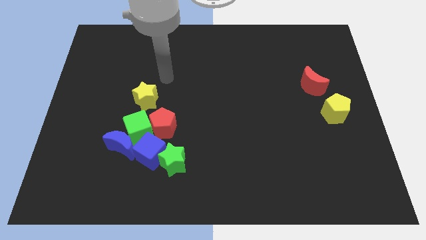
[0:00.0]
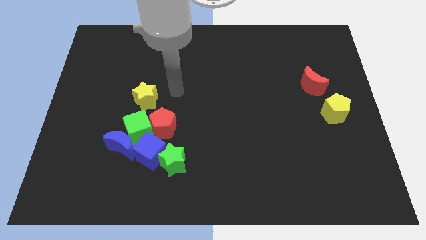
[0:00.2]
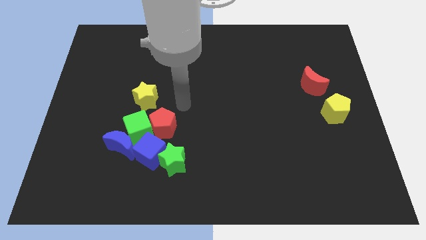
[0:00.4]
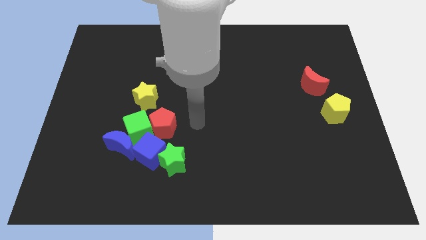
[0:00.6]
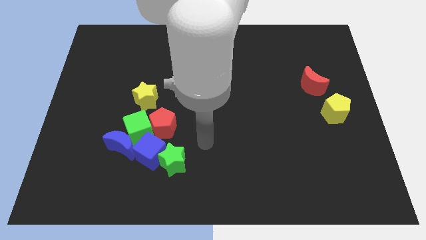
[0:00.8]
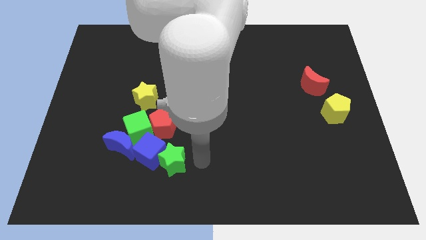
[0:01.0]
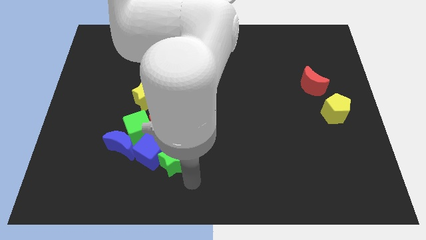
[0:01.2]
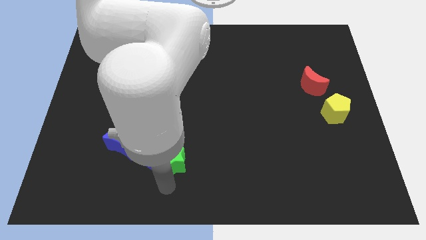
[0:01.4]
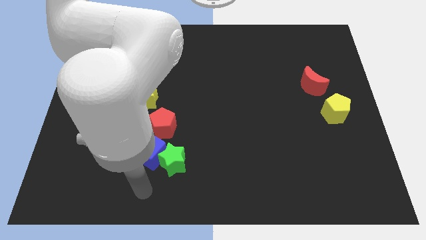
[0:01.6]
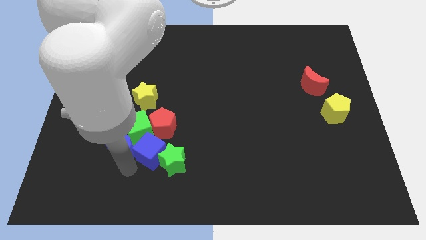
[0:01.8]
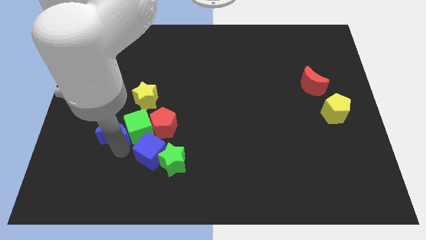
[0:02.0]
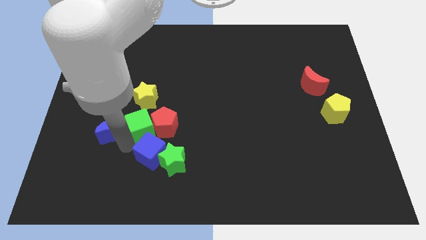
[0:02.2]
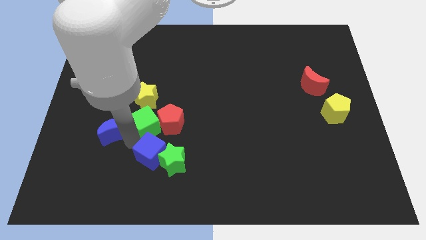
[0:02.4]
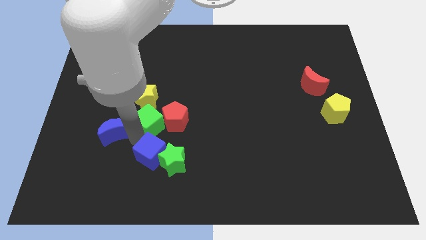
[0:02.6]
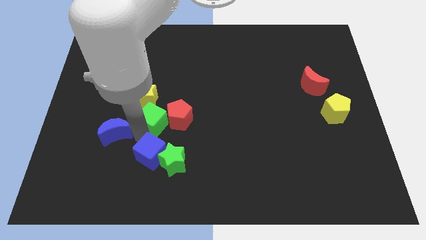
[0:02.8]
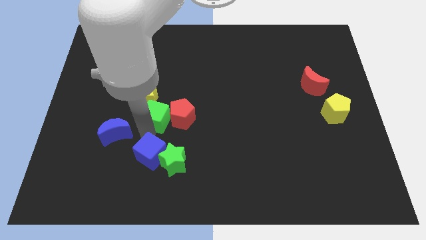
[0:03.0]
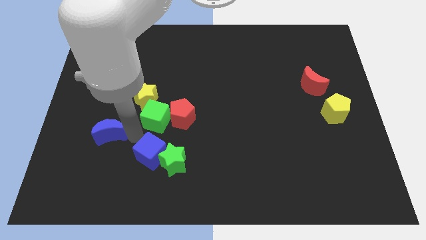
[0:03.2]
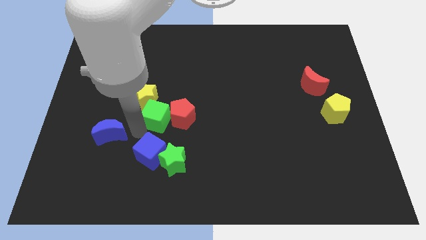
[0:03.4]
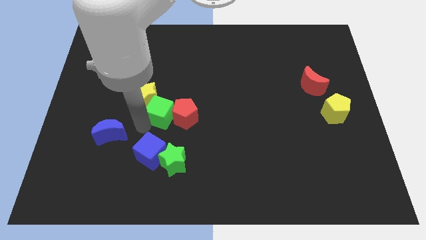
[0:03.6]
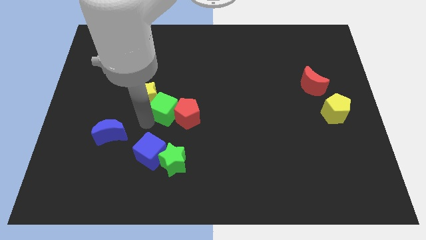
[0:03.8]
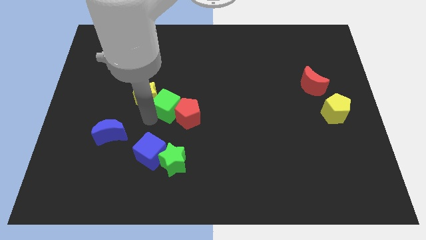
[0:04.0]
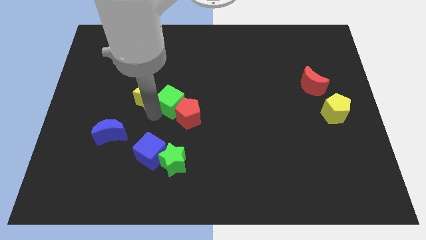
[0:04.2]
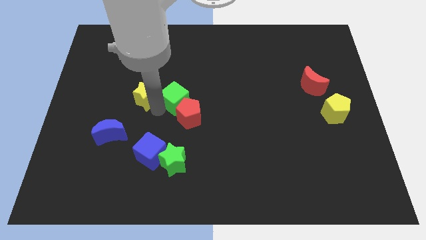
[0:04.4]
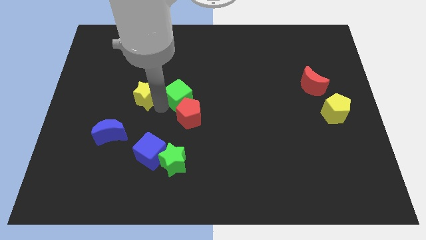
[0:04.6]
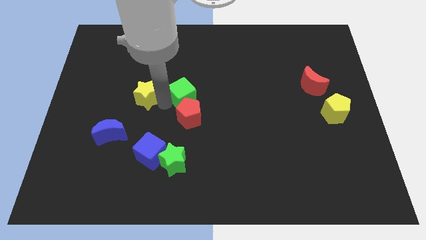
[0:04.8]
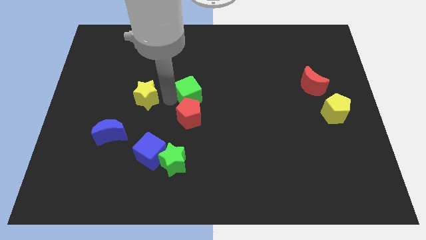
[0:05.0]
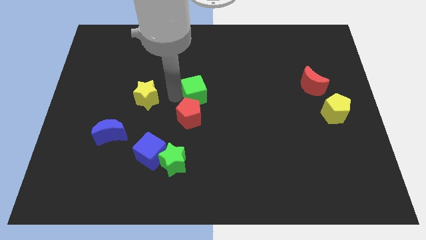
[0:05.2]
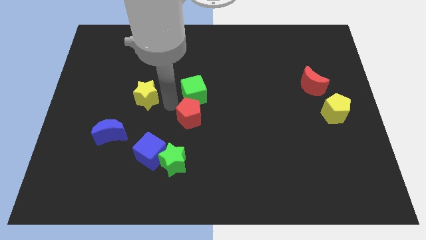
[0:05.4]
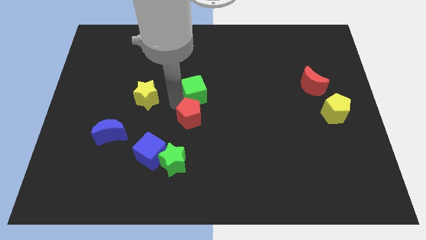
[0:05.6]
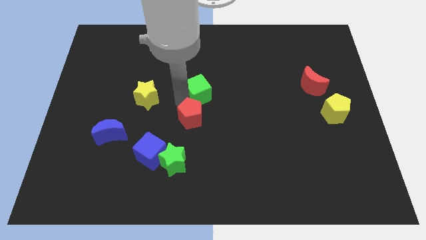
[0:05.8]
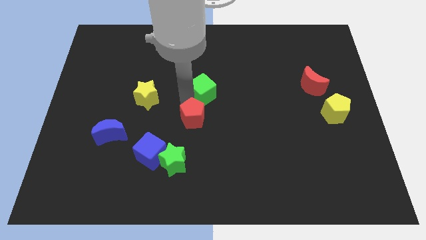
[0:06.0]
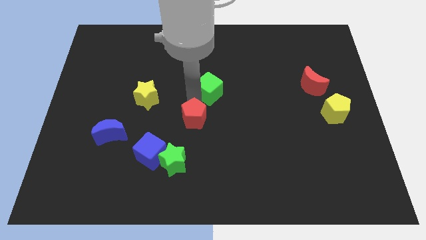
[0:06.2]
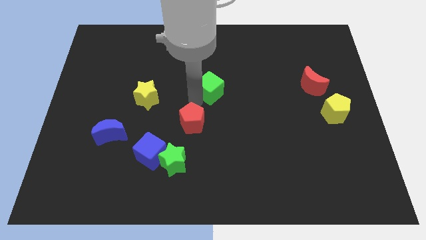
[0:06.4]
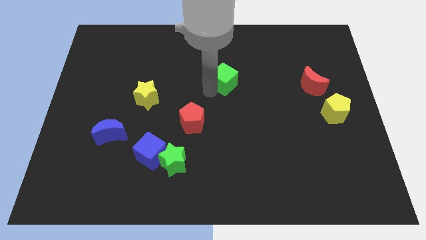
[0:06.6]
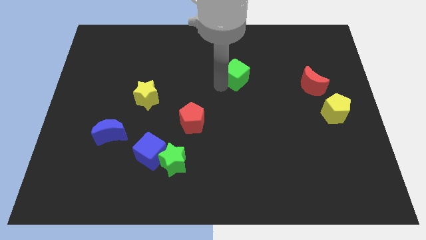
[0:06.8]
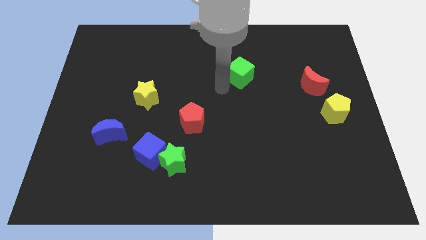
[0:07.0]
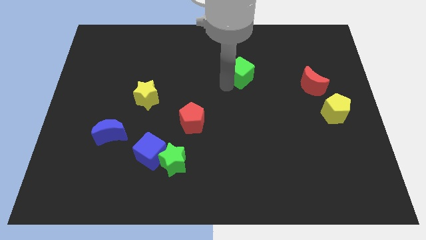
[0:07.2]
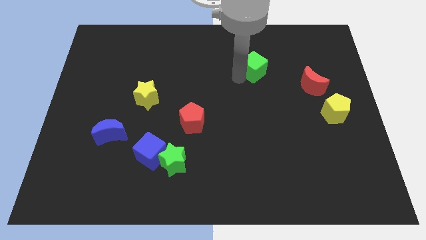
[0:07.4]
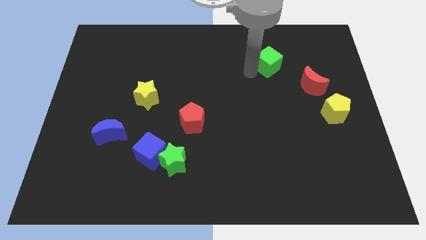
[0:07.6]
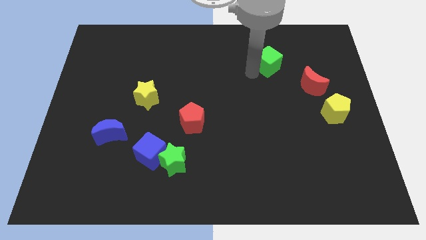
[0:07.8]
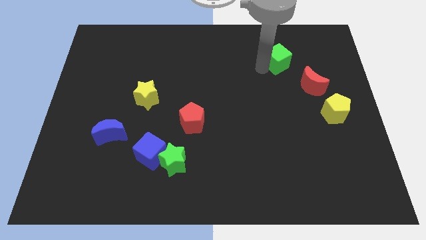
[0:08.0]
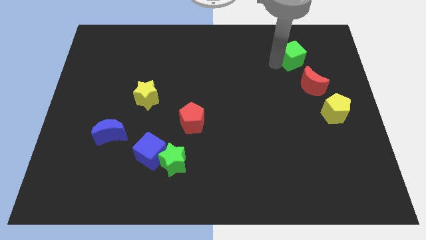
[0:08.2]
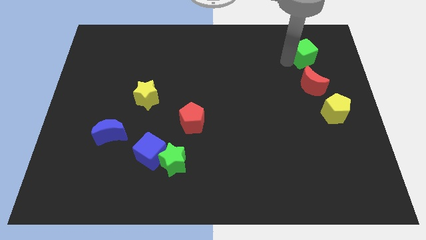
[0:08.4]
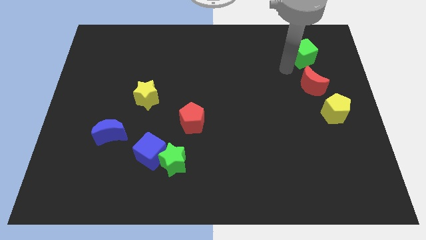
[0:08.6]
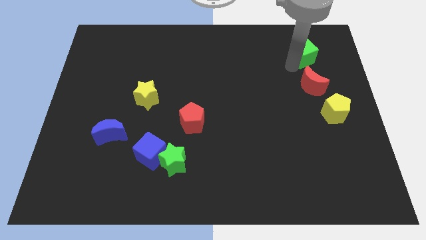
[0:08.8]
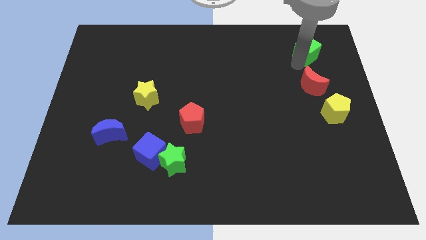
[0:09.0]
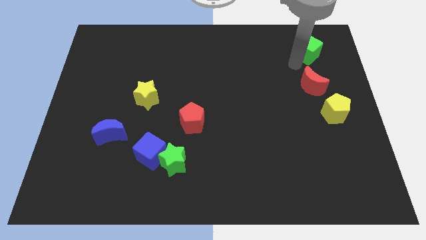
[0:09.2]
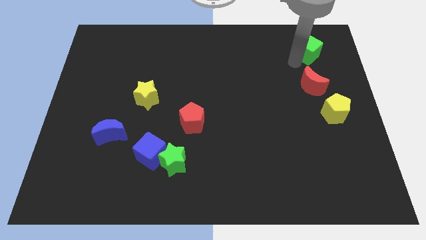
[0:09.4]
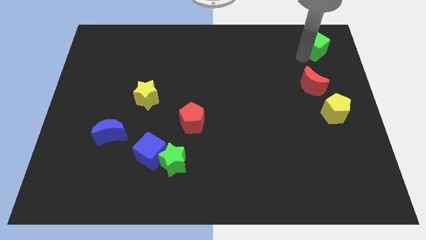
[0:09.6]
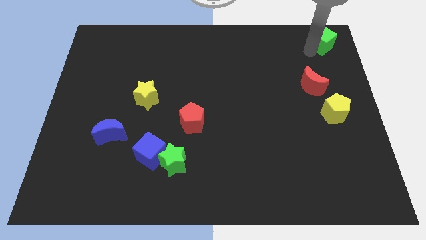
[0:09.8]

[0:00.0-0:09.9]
move the green cube to the top right corner

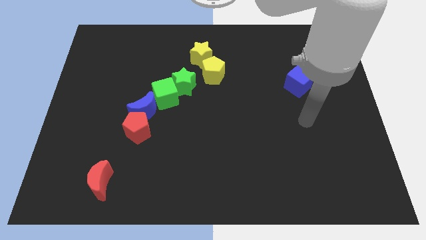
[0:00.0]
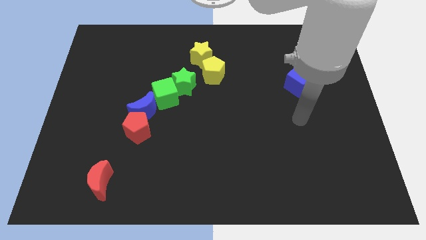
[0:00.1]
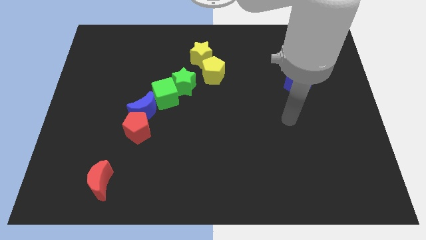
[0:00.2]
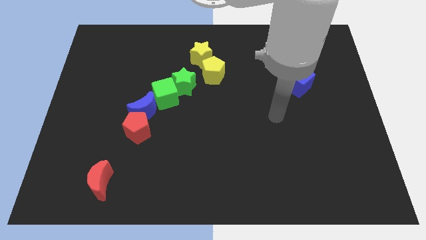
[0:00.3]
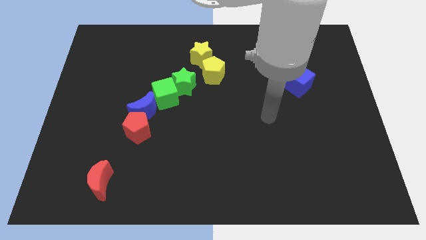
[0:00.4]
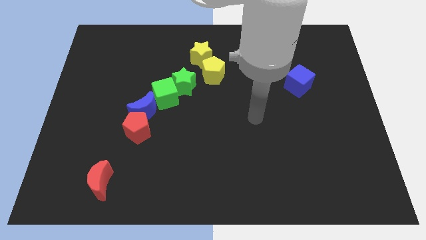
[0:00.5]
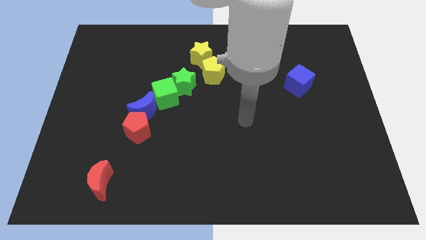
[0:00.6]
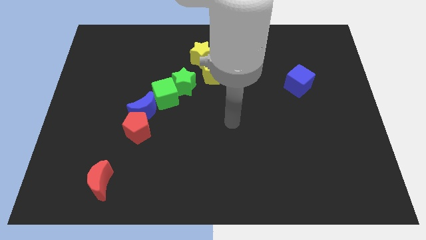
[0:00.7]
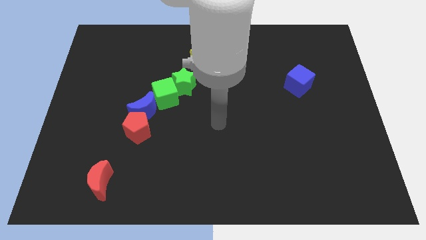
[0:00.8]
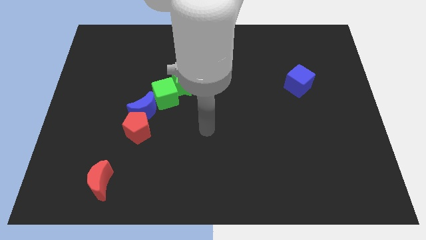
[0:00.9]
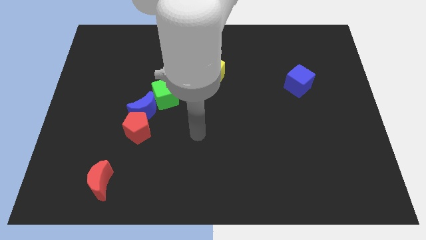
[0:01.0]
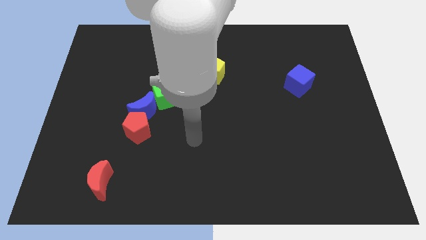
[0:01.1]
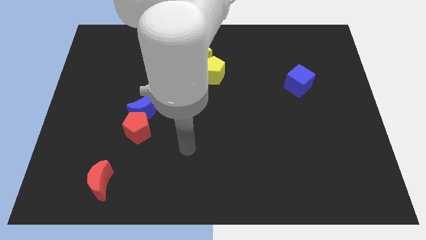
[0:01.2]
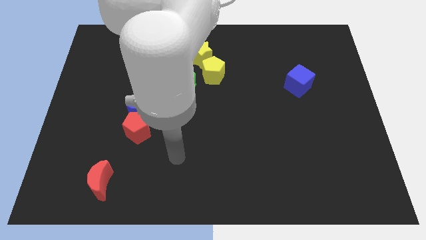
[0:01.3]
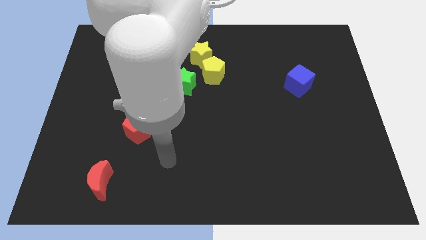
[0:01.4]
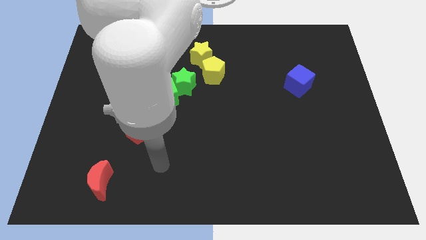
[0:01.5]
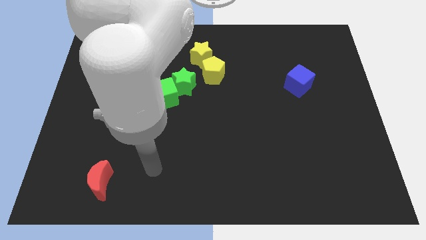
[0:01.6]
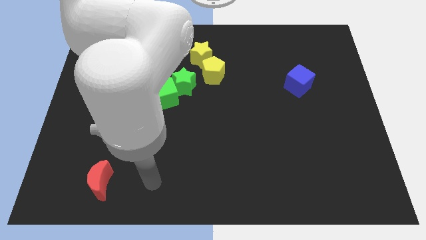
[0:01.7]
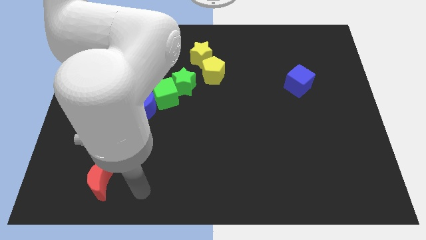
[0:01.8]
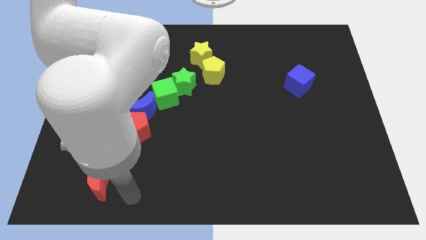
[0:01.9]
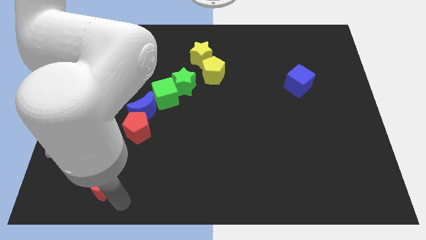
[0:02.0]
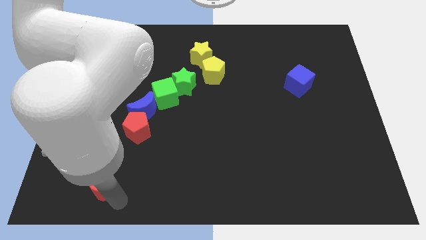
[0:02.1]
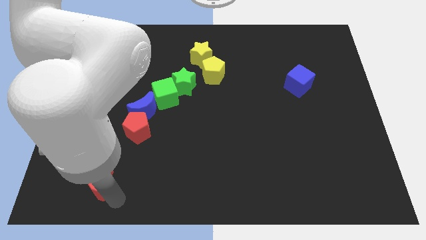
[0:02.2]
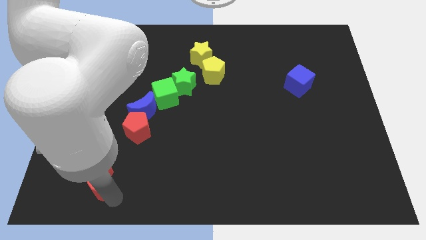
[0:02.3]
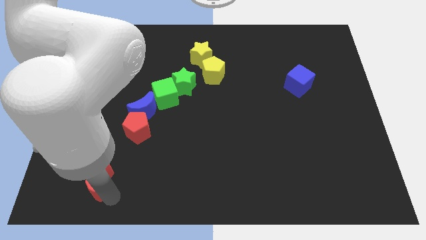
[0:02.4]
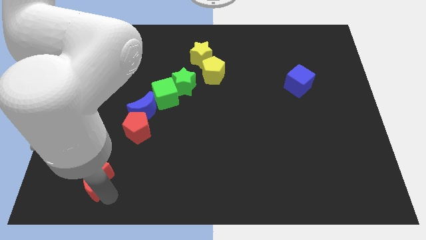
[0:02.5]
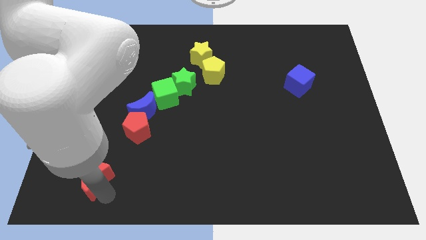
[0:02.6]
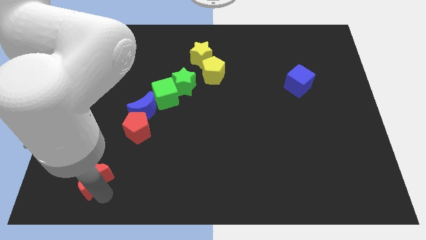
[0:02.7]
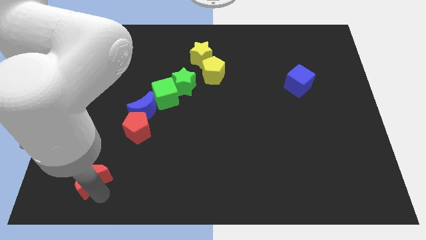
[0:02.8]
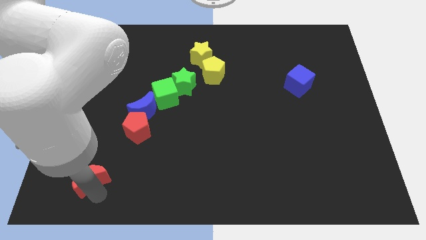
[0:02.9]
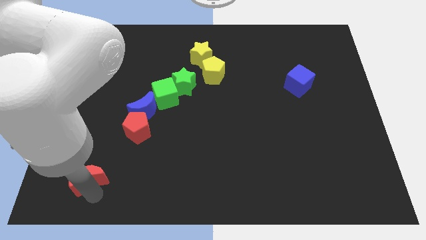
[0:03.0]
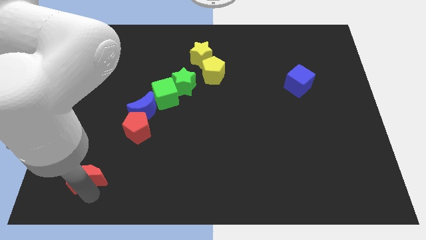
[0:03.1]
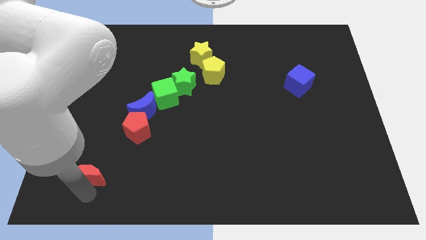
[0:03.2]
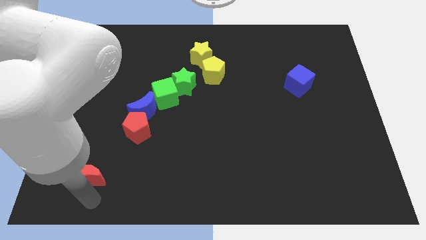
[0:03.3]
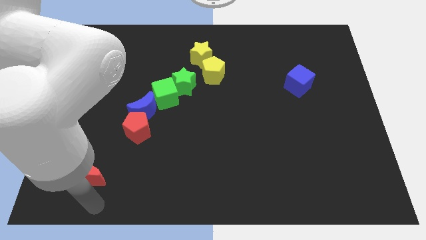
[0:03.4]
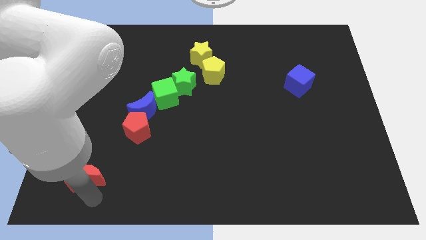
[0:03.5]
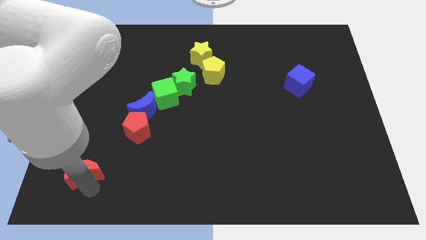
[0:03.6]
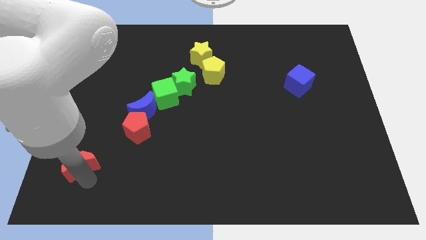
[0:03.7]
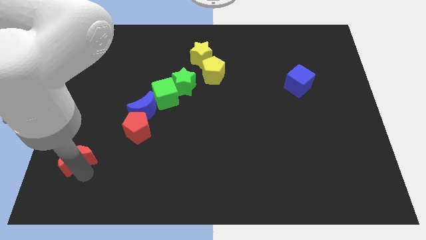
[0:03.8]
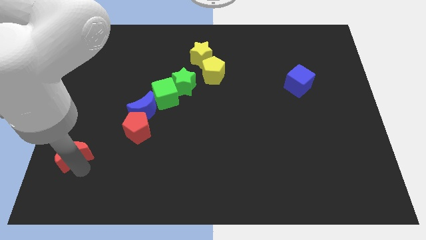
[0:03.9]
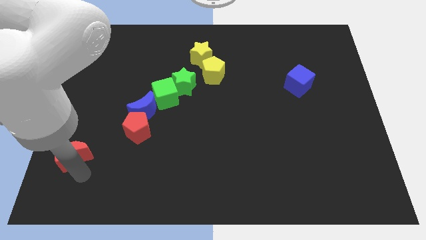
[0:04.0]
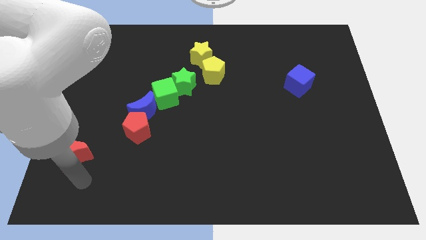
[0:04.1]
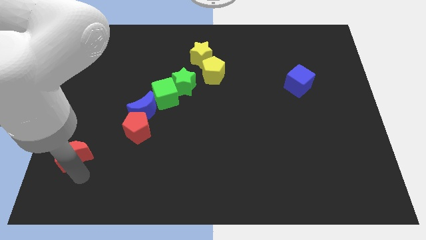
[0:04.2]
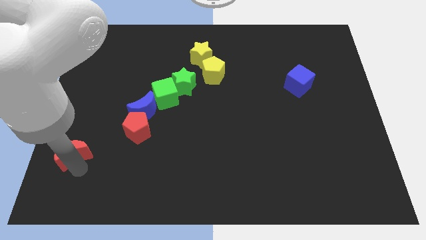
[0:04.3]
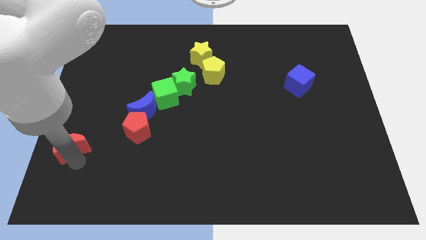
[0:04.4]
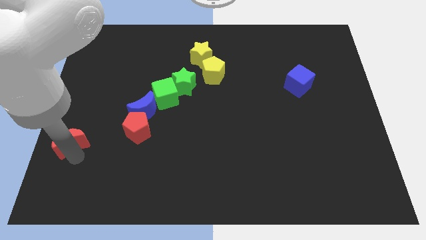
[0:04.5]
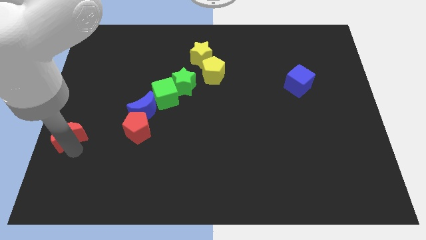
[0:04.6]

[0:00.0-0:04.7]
put the red moon to the center left
